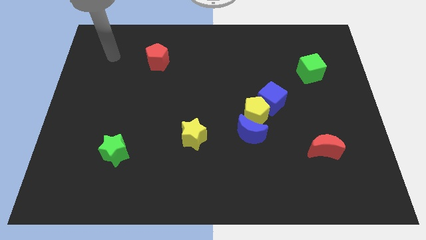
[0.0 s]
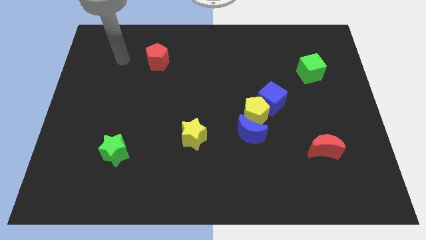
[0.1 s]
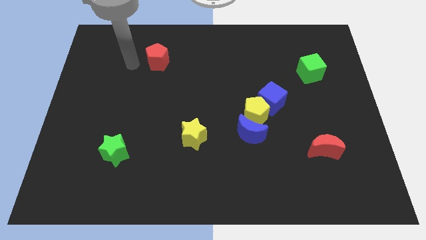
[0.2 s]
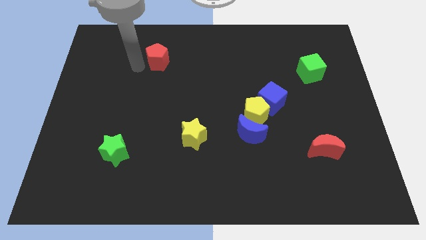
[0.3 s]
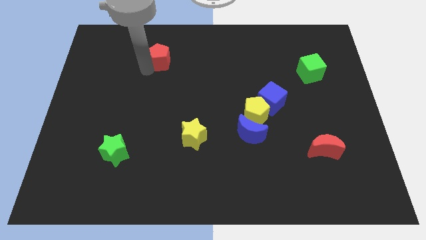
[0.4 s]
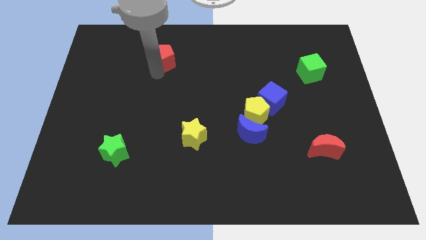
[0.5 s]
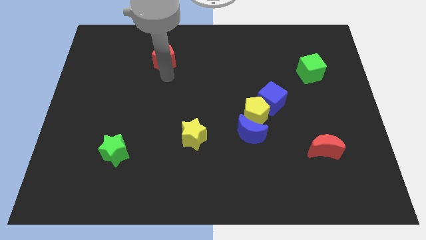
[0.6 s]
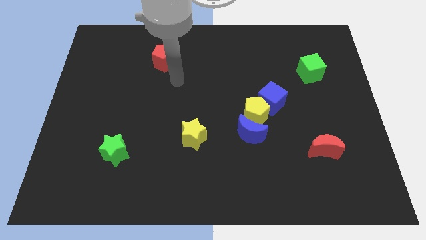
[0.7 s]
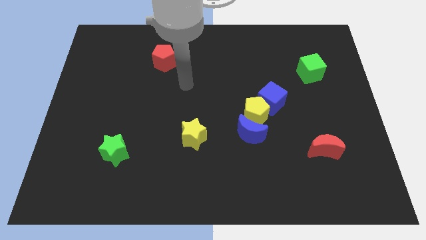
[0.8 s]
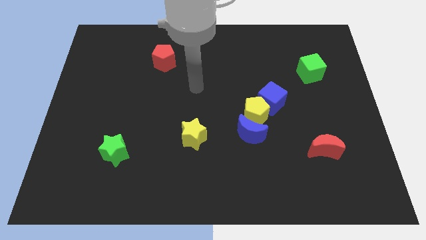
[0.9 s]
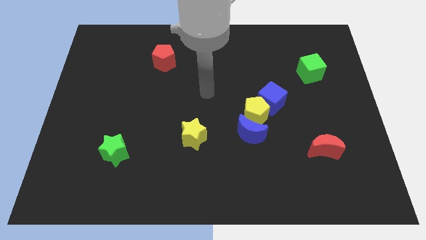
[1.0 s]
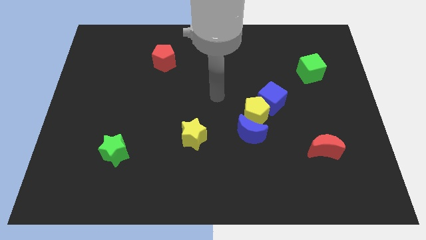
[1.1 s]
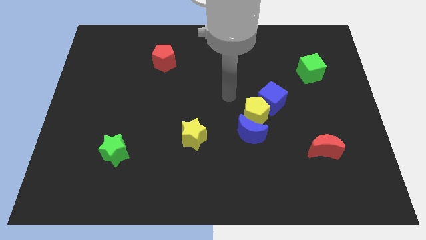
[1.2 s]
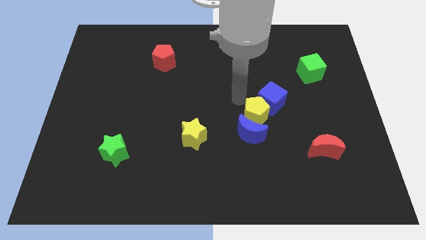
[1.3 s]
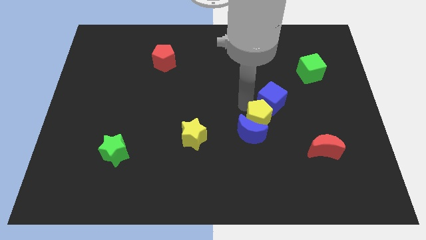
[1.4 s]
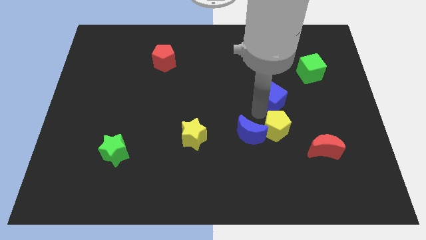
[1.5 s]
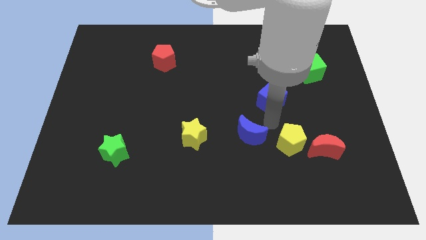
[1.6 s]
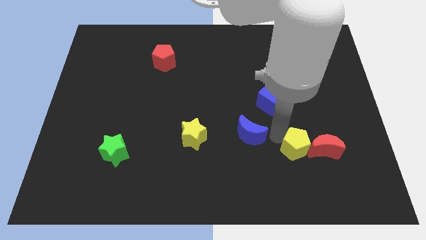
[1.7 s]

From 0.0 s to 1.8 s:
separate the blue moon from the yellow pentagon

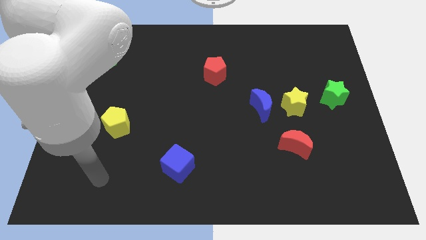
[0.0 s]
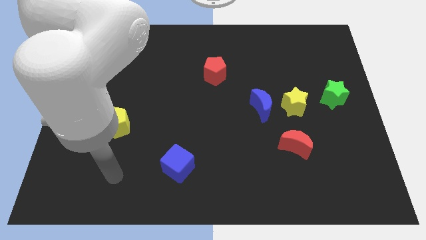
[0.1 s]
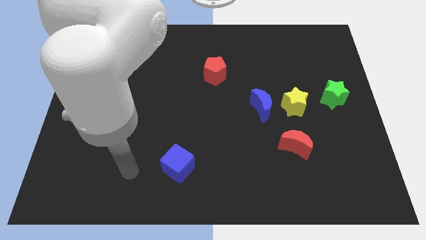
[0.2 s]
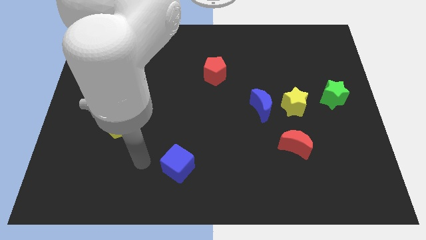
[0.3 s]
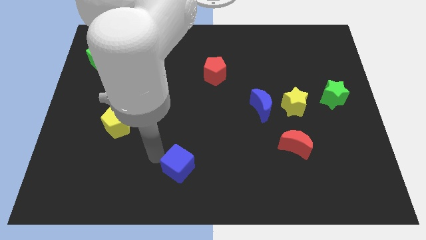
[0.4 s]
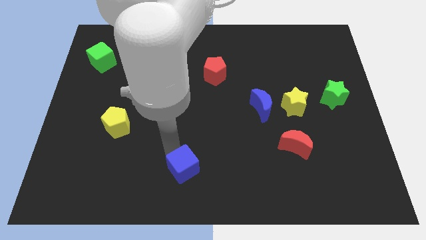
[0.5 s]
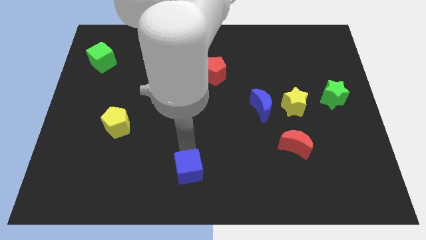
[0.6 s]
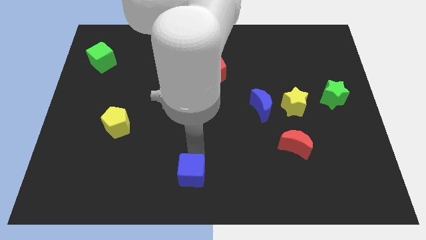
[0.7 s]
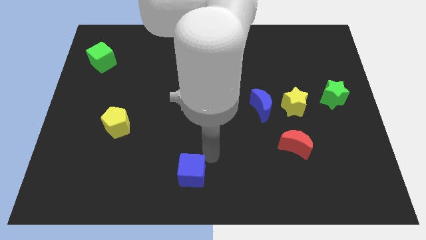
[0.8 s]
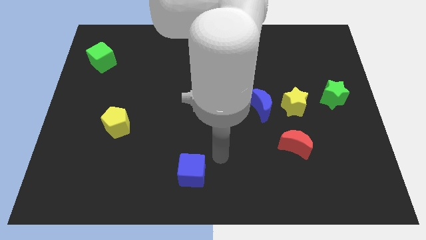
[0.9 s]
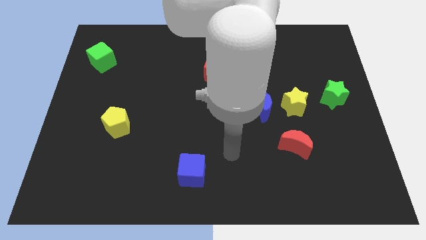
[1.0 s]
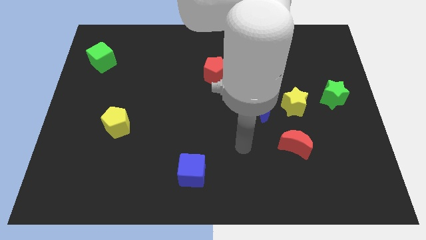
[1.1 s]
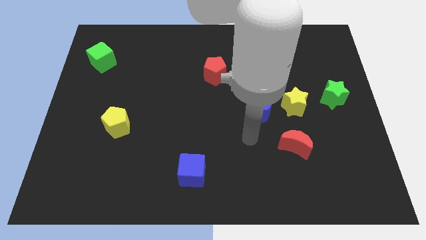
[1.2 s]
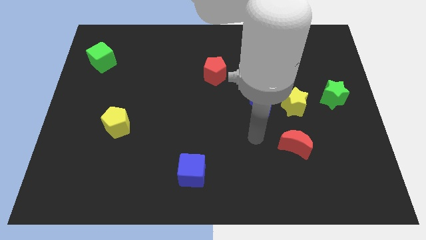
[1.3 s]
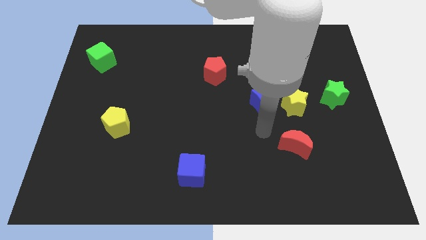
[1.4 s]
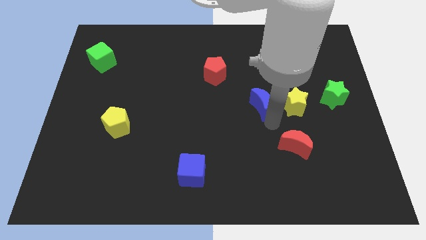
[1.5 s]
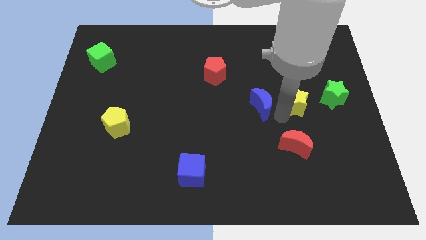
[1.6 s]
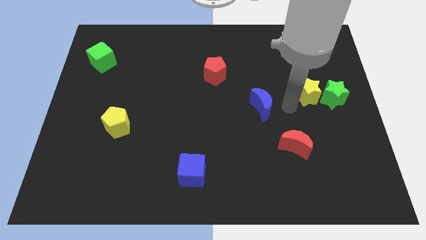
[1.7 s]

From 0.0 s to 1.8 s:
move the blue moon away from the yellow star

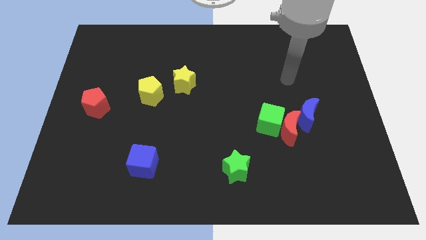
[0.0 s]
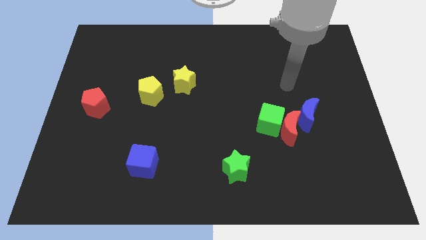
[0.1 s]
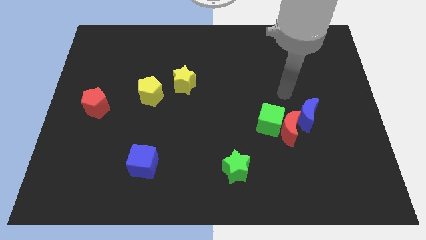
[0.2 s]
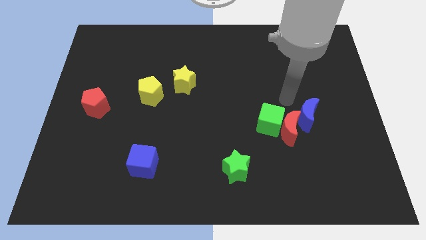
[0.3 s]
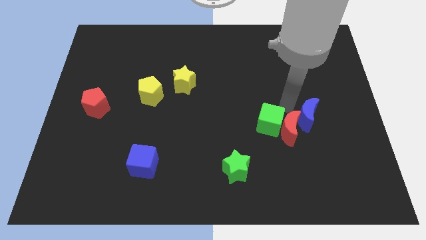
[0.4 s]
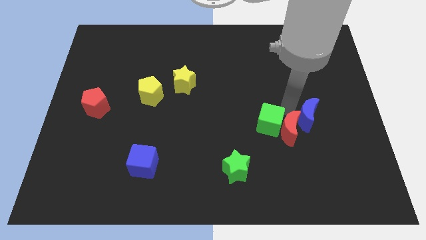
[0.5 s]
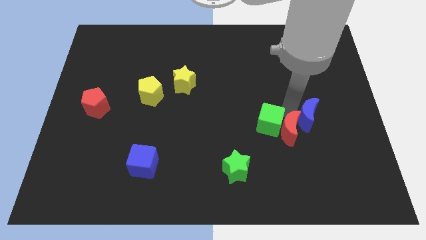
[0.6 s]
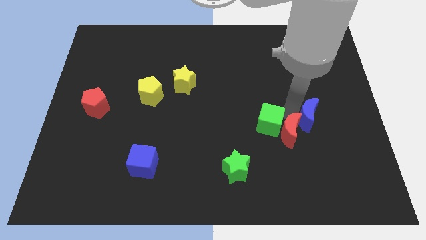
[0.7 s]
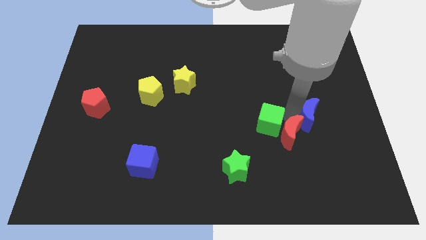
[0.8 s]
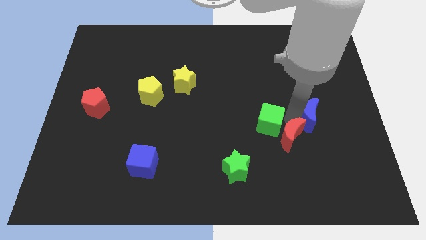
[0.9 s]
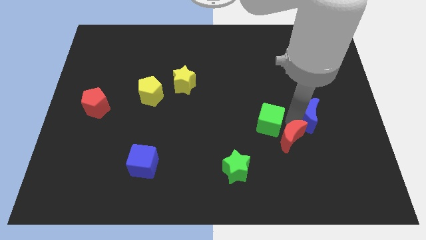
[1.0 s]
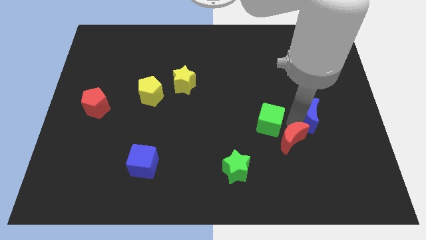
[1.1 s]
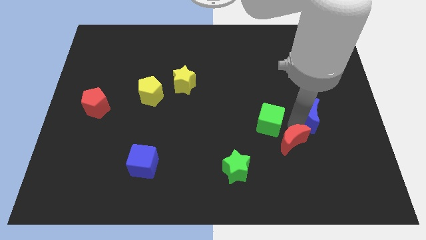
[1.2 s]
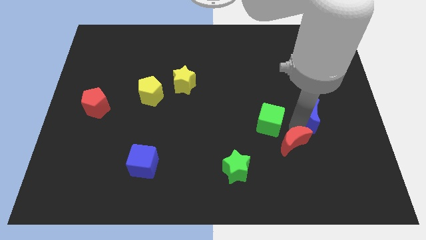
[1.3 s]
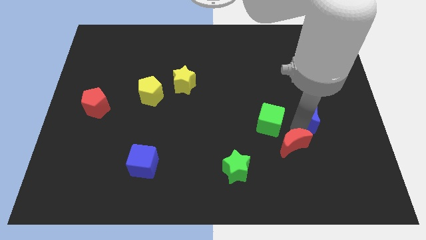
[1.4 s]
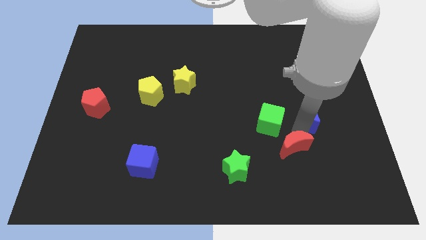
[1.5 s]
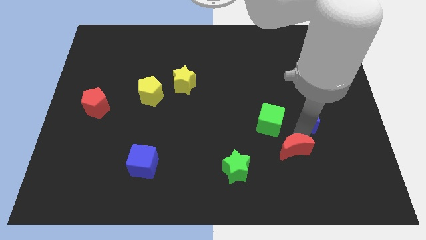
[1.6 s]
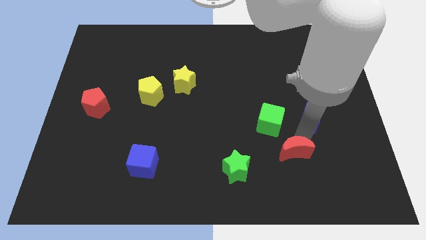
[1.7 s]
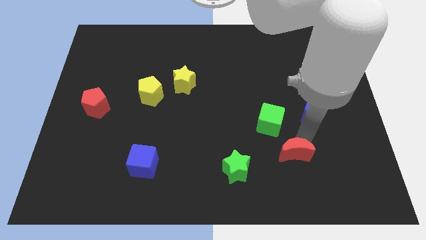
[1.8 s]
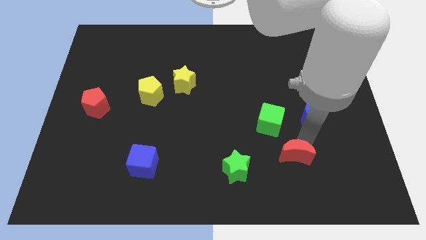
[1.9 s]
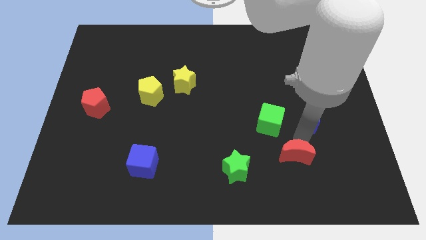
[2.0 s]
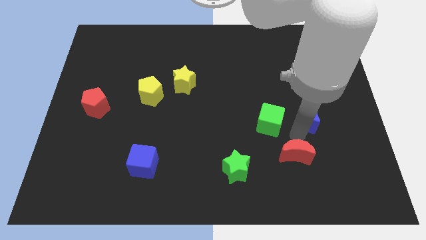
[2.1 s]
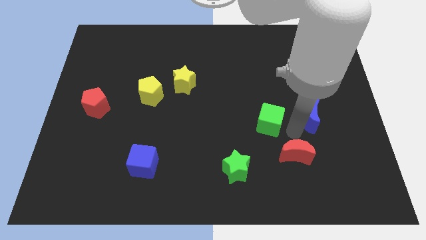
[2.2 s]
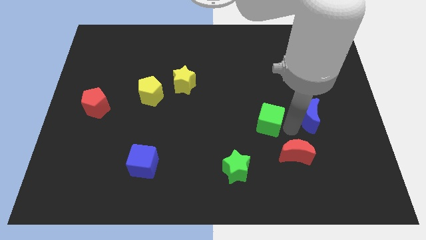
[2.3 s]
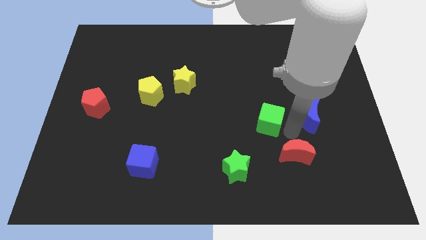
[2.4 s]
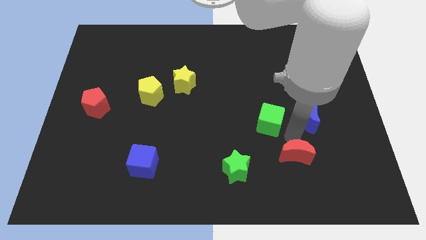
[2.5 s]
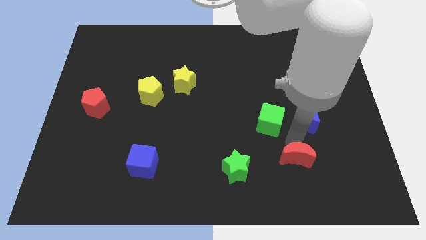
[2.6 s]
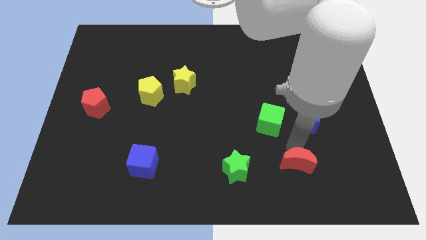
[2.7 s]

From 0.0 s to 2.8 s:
move the red moon away from the green cube and blue moon

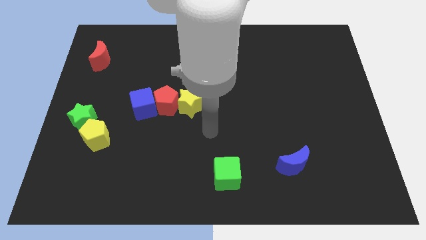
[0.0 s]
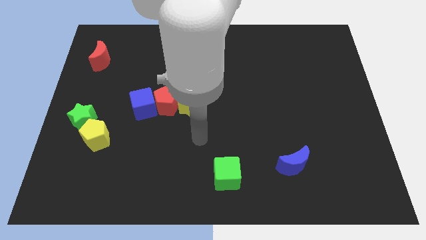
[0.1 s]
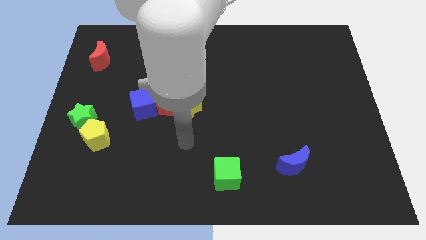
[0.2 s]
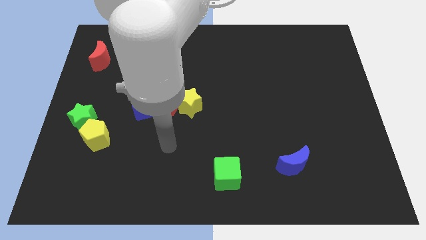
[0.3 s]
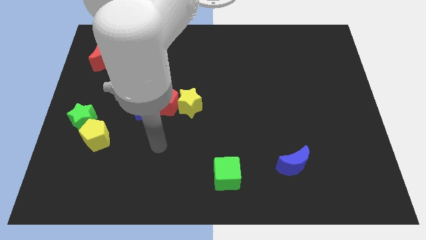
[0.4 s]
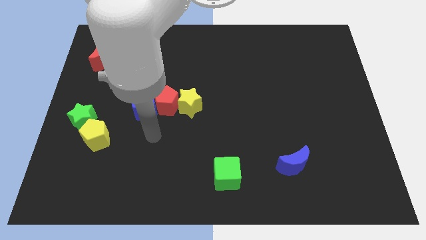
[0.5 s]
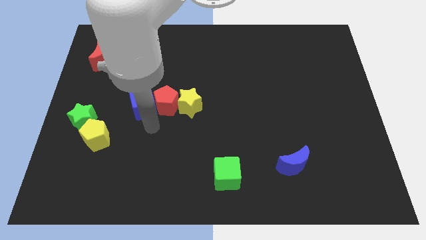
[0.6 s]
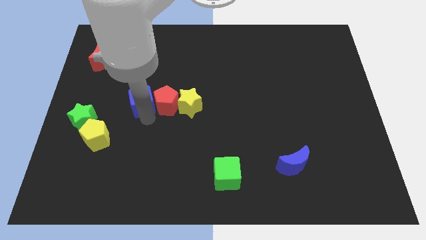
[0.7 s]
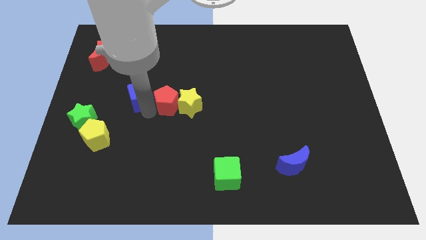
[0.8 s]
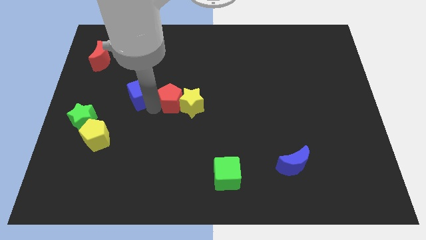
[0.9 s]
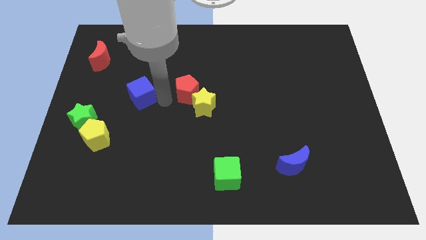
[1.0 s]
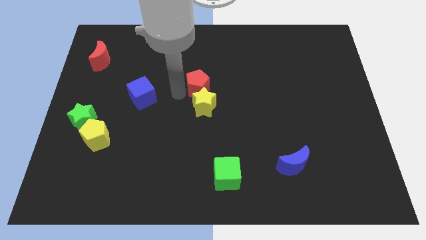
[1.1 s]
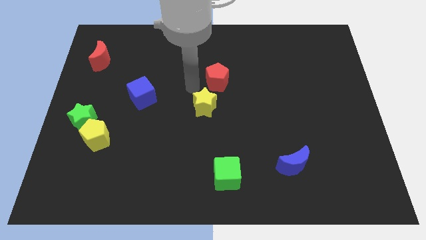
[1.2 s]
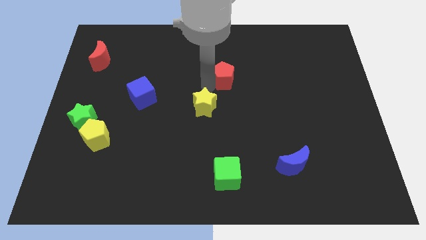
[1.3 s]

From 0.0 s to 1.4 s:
separate the yellow star from the red pentagon

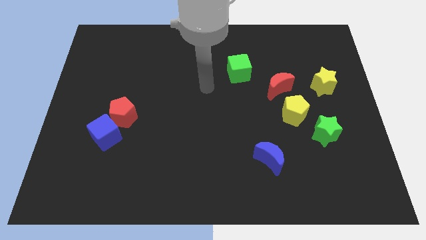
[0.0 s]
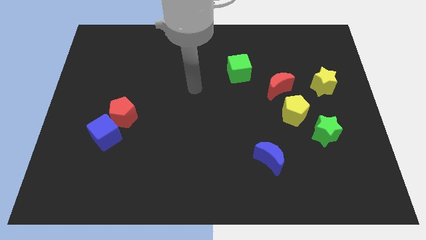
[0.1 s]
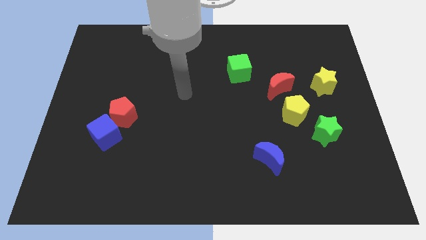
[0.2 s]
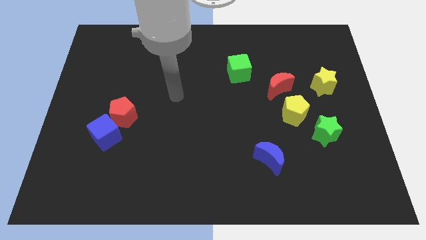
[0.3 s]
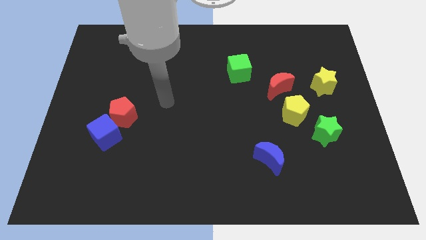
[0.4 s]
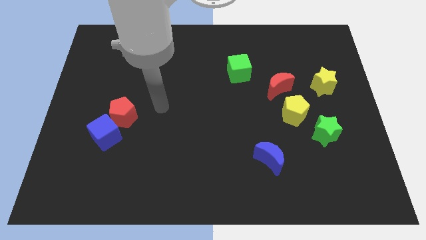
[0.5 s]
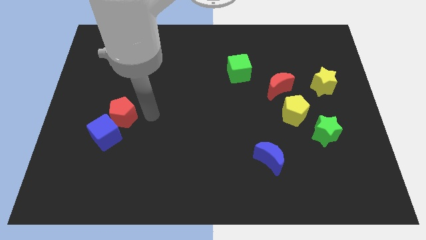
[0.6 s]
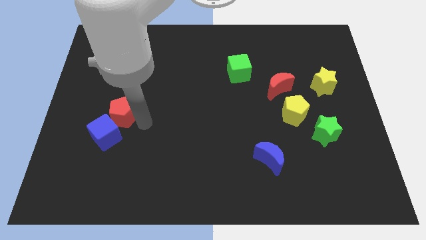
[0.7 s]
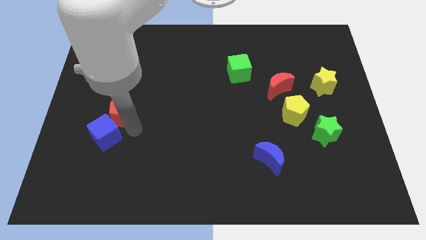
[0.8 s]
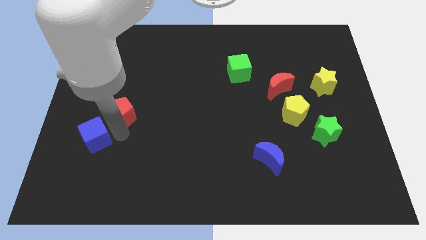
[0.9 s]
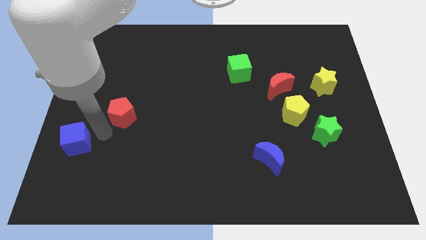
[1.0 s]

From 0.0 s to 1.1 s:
move the red pentagon away from the blue cube

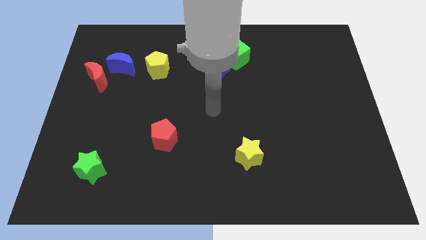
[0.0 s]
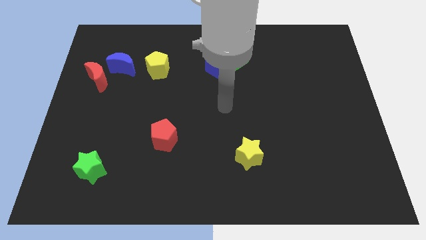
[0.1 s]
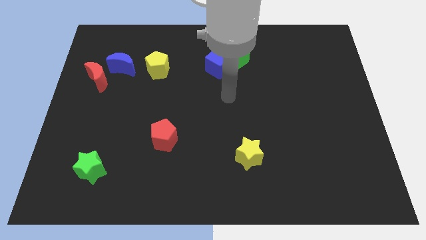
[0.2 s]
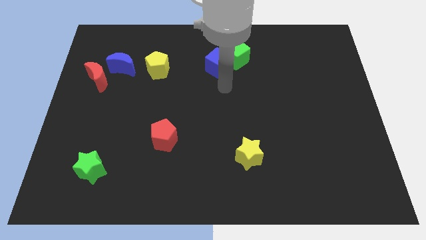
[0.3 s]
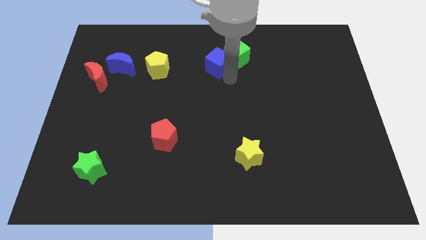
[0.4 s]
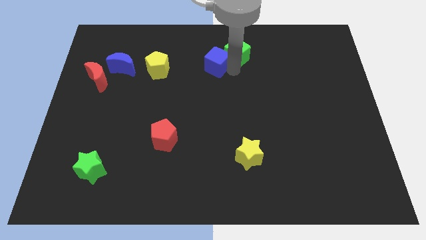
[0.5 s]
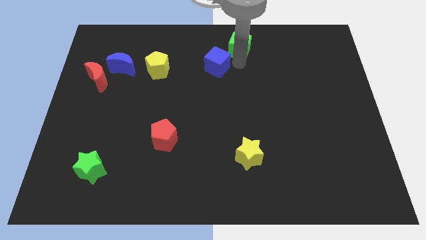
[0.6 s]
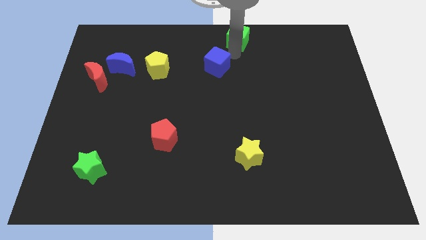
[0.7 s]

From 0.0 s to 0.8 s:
pull the blue cube apart from the green cube
